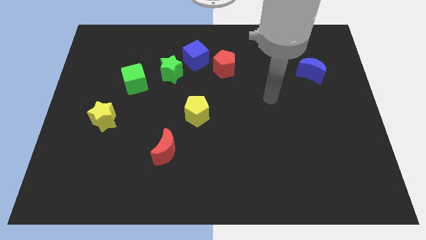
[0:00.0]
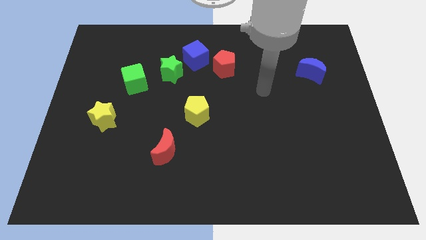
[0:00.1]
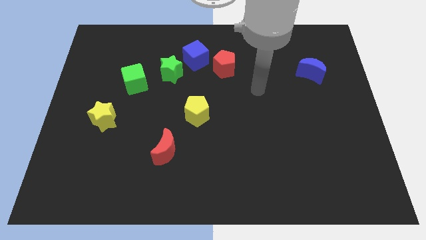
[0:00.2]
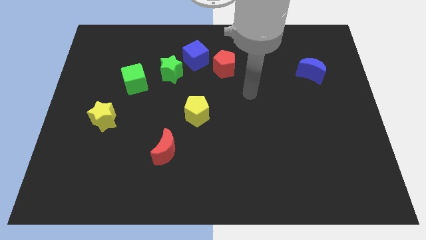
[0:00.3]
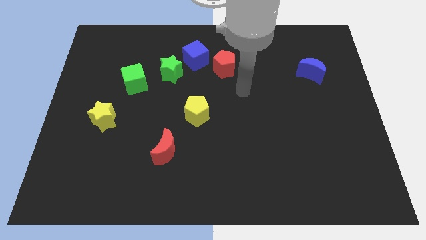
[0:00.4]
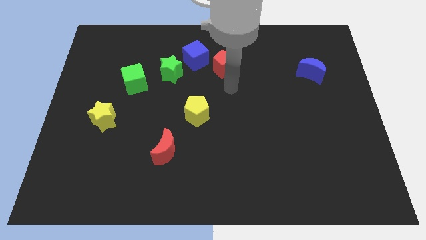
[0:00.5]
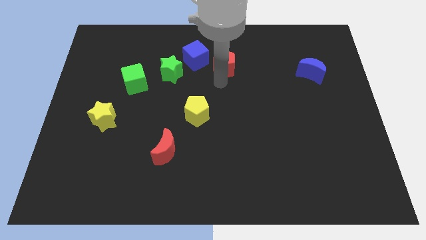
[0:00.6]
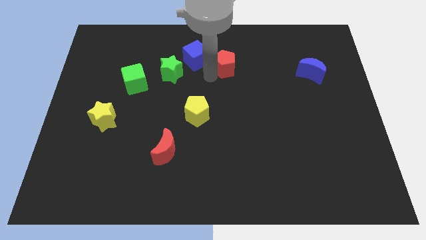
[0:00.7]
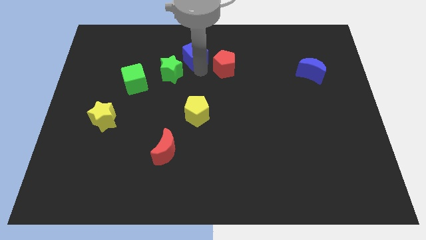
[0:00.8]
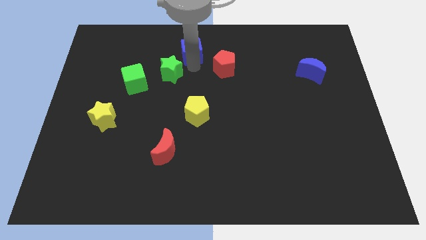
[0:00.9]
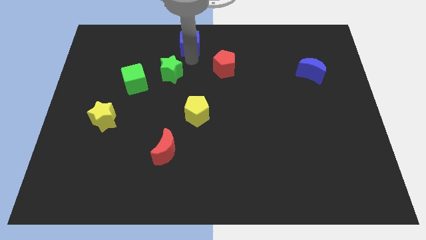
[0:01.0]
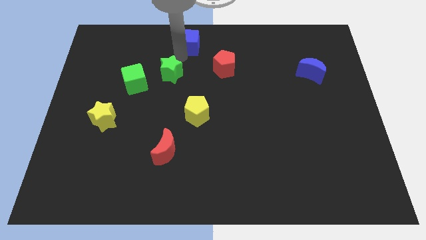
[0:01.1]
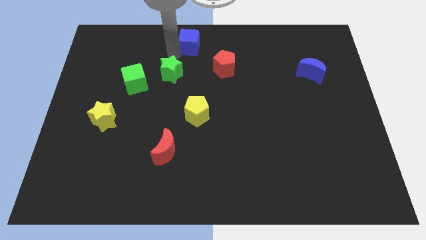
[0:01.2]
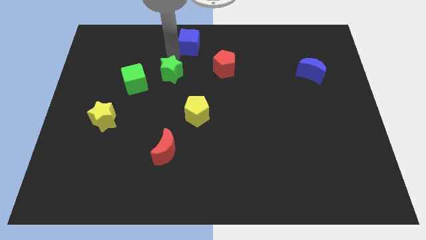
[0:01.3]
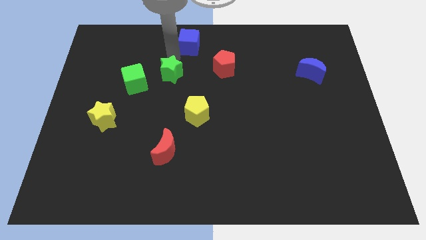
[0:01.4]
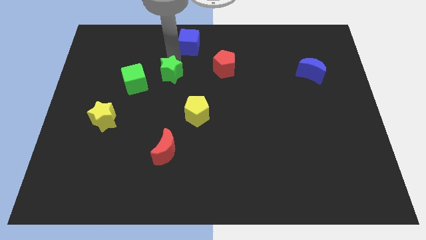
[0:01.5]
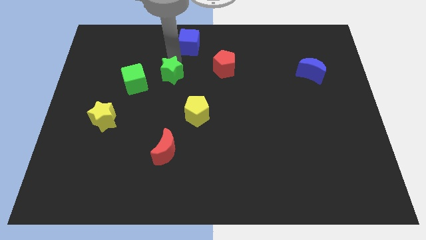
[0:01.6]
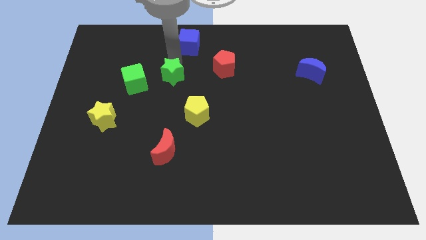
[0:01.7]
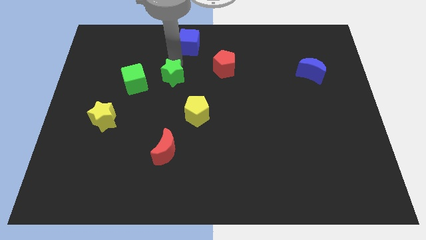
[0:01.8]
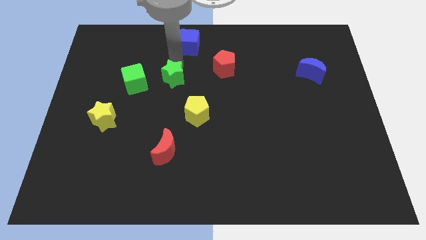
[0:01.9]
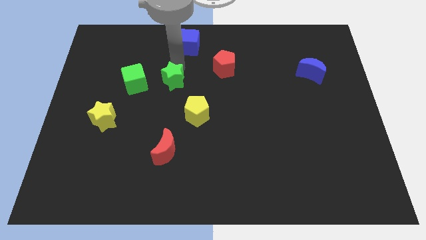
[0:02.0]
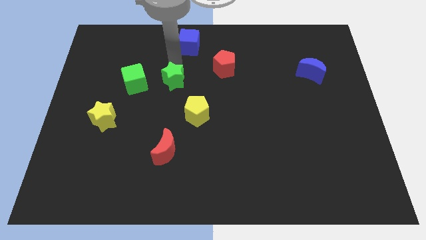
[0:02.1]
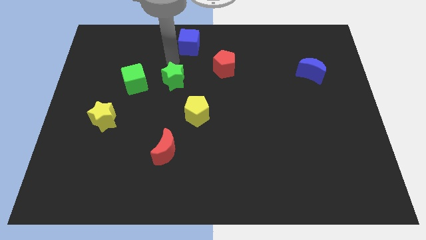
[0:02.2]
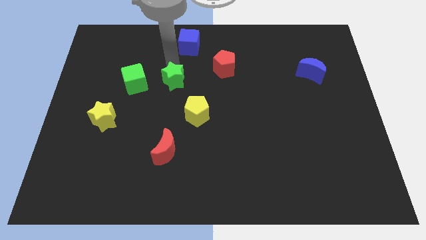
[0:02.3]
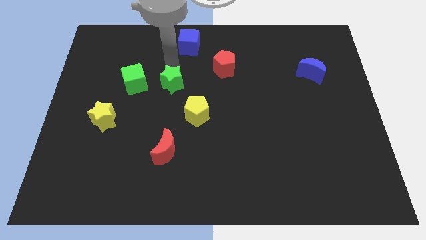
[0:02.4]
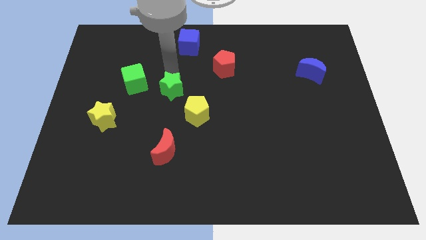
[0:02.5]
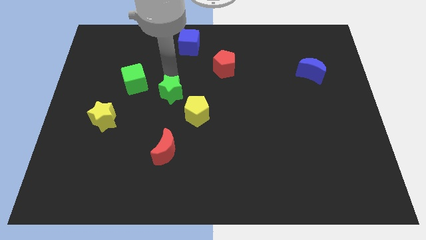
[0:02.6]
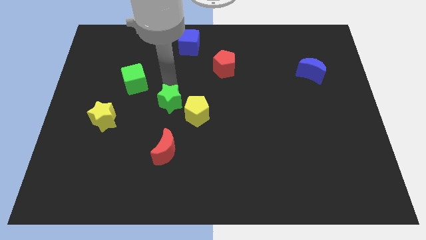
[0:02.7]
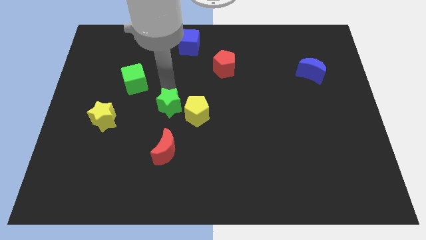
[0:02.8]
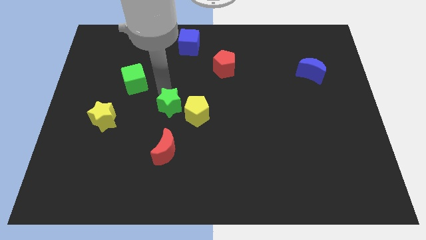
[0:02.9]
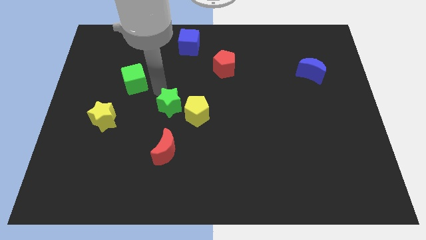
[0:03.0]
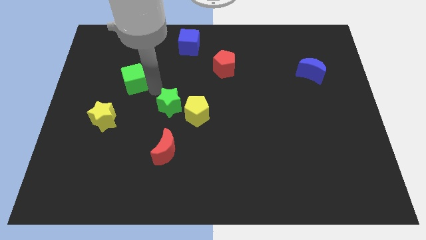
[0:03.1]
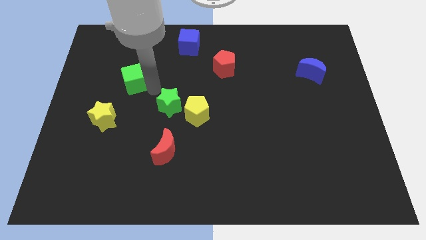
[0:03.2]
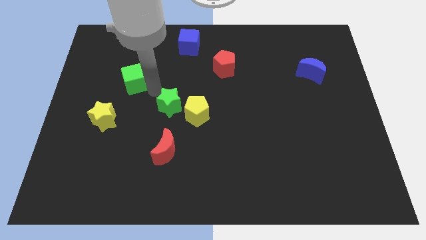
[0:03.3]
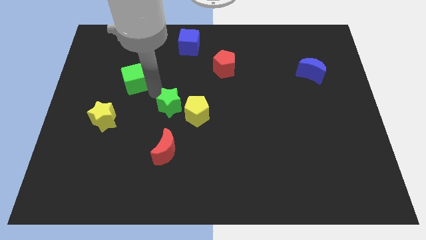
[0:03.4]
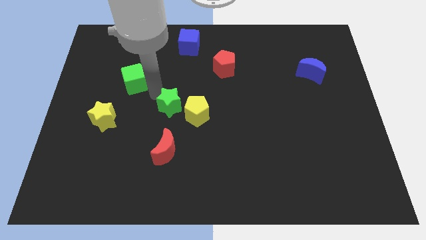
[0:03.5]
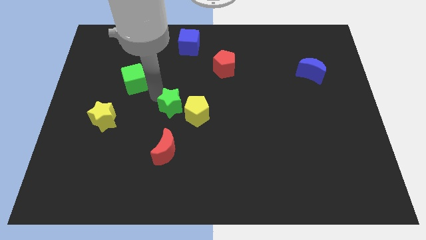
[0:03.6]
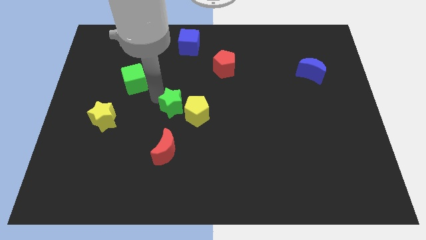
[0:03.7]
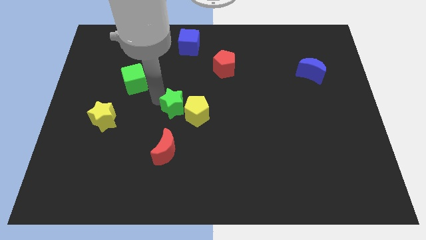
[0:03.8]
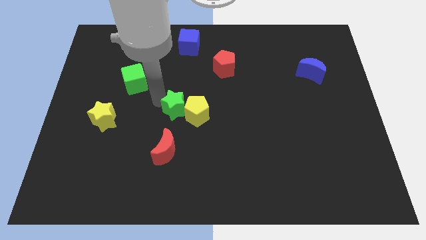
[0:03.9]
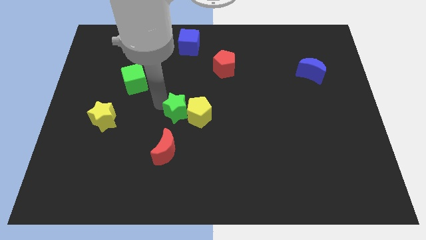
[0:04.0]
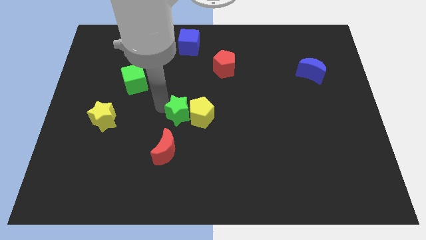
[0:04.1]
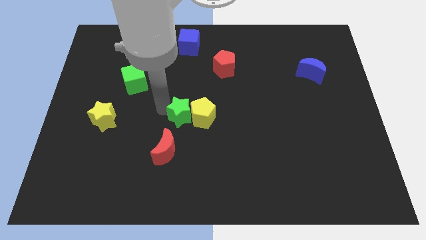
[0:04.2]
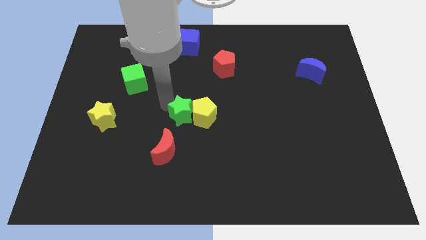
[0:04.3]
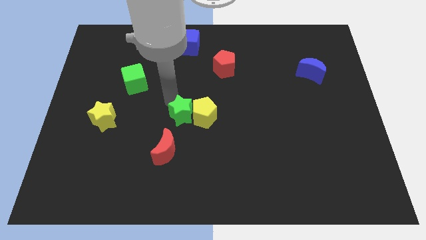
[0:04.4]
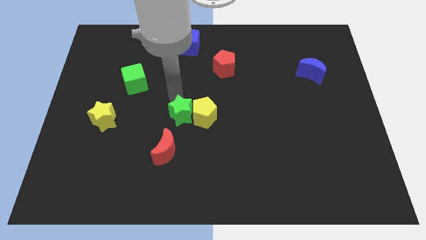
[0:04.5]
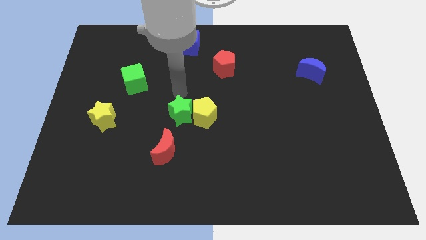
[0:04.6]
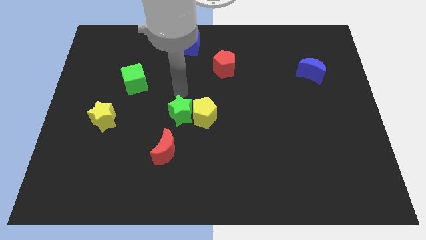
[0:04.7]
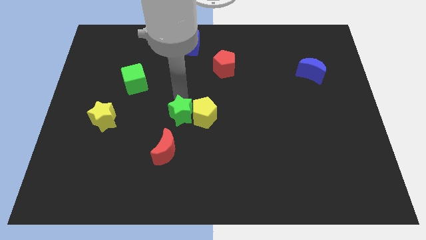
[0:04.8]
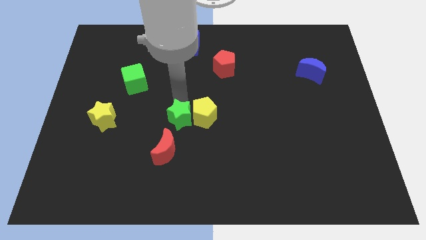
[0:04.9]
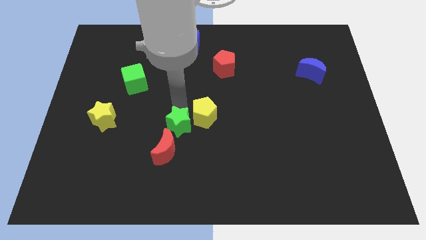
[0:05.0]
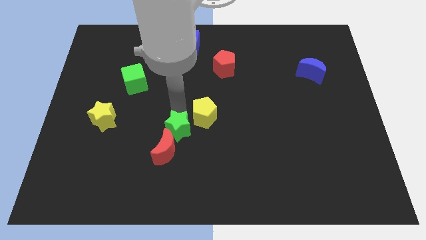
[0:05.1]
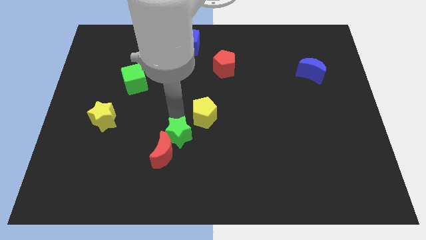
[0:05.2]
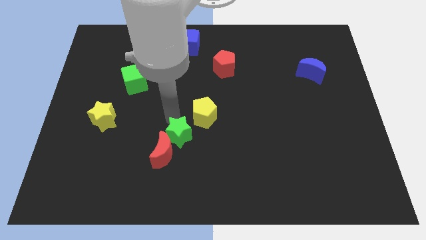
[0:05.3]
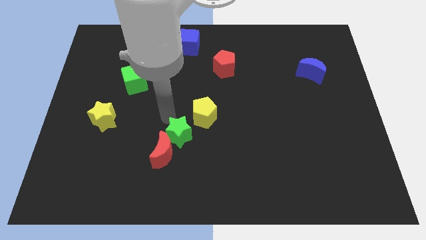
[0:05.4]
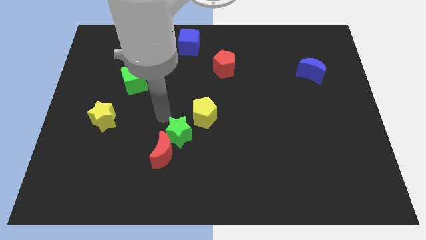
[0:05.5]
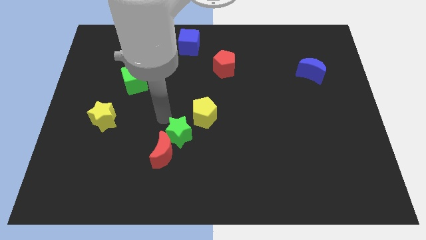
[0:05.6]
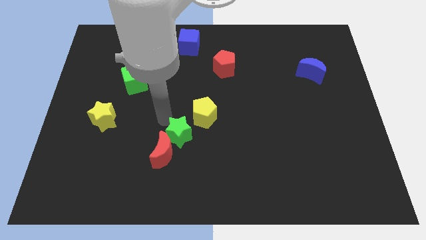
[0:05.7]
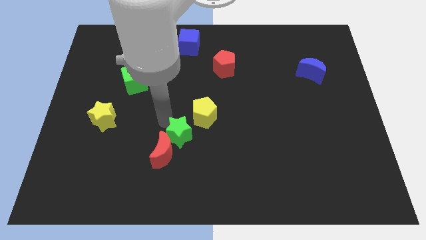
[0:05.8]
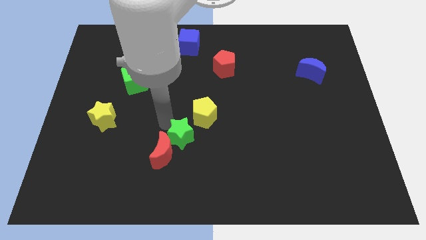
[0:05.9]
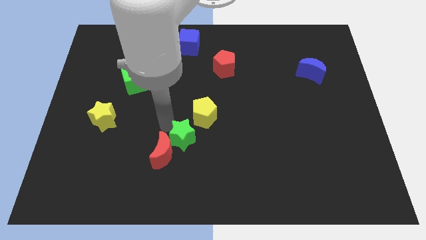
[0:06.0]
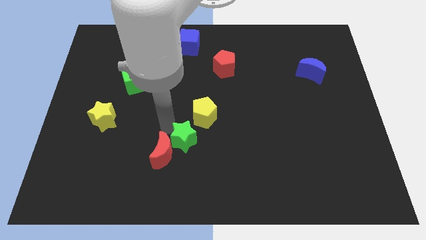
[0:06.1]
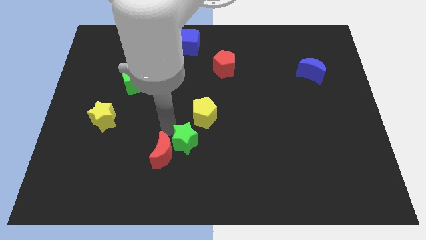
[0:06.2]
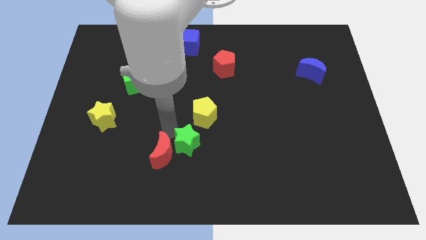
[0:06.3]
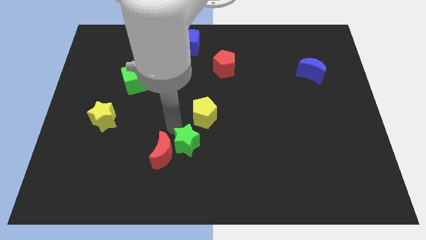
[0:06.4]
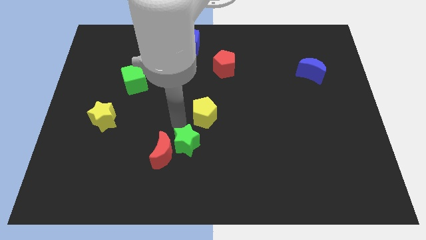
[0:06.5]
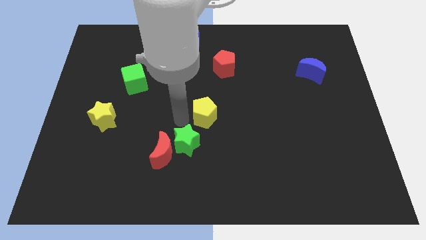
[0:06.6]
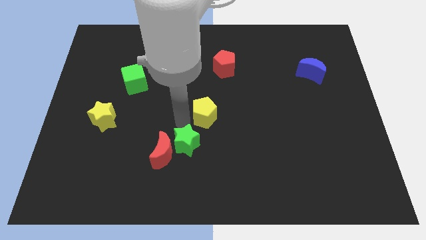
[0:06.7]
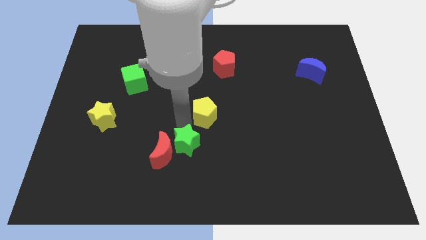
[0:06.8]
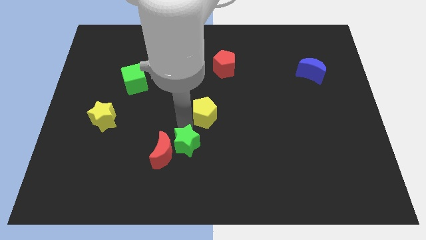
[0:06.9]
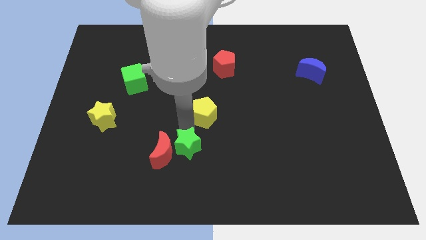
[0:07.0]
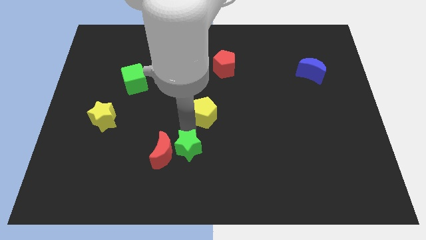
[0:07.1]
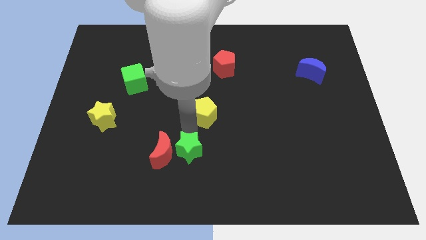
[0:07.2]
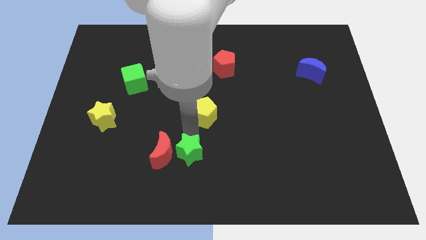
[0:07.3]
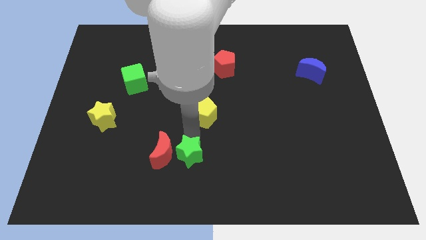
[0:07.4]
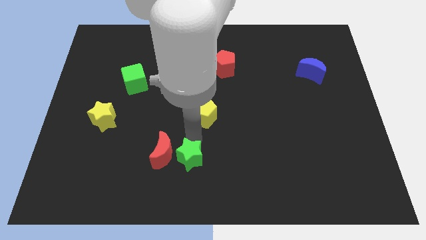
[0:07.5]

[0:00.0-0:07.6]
slide the green star to the bottom side
